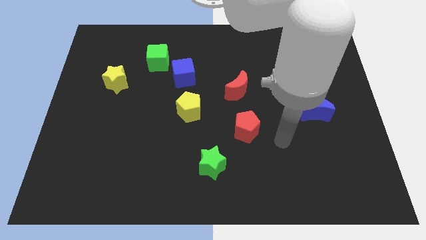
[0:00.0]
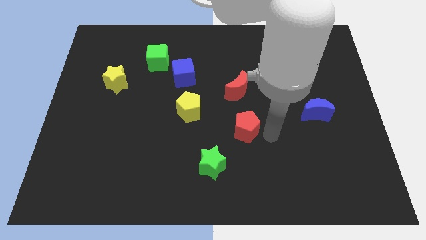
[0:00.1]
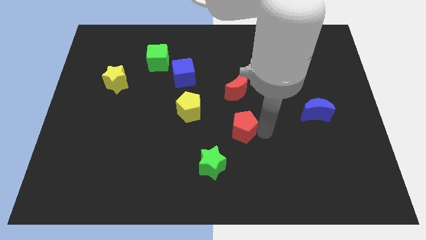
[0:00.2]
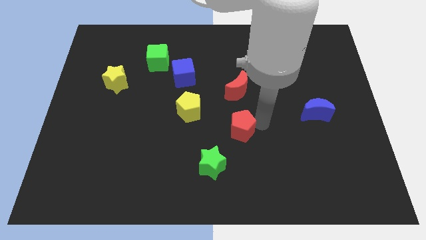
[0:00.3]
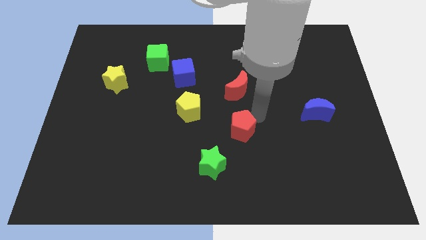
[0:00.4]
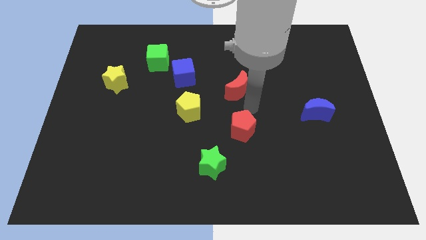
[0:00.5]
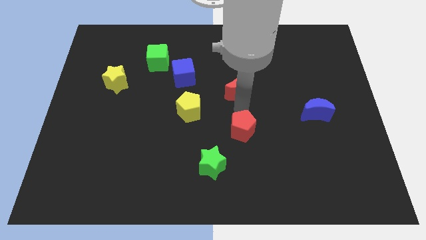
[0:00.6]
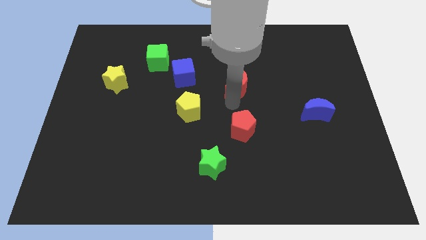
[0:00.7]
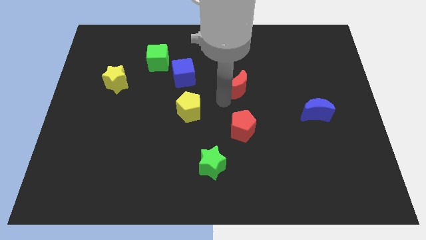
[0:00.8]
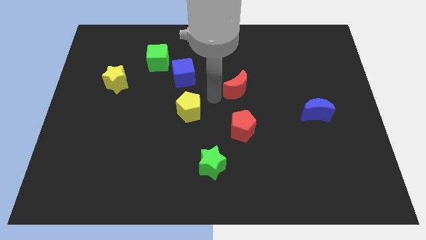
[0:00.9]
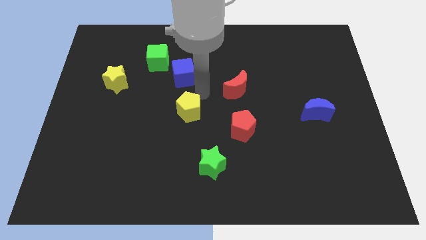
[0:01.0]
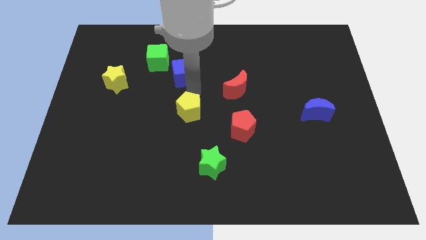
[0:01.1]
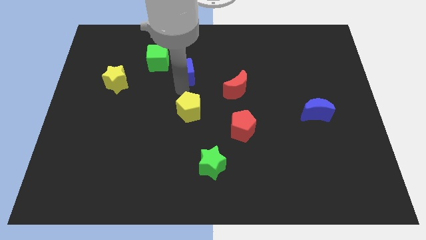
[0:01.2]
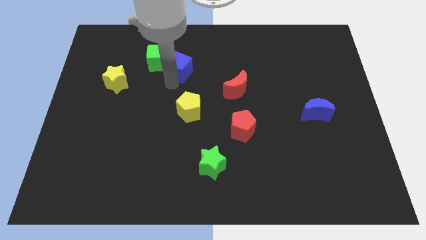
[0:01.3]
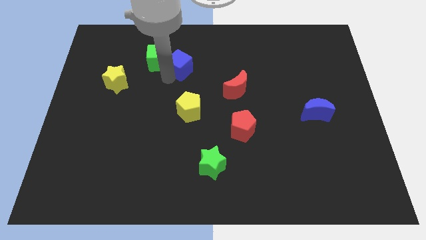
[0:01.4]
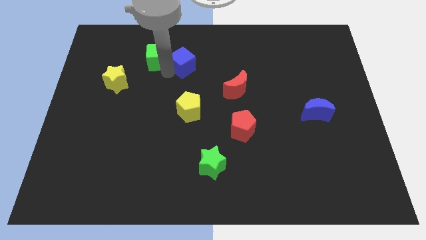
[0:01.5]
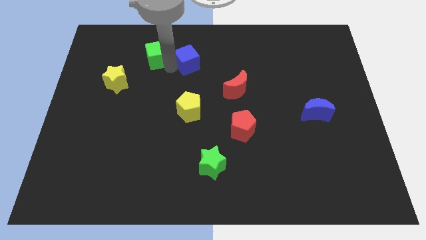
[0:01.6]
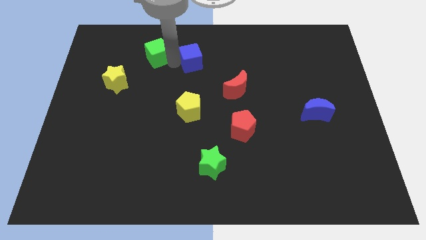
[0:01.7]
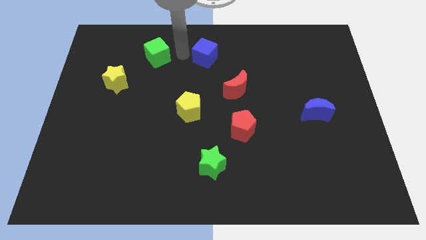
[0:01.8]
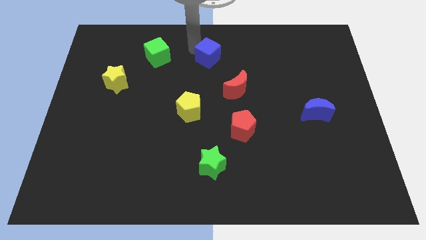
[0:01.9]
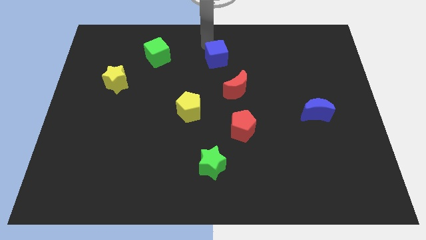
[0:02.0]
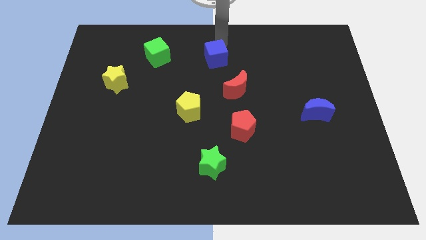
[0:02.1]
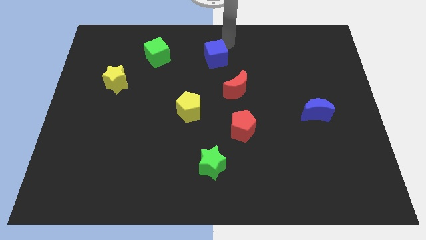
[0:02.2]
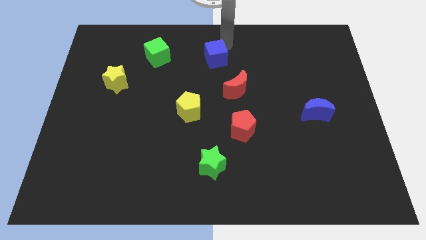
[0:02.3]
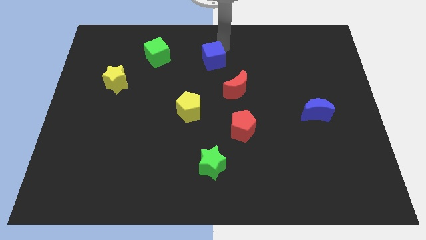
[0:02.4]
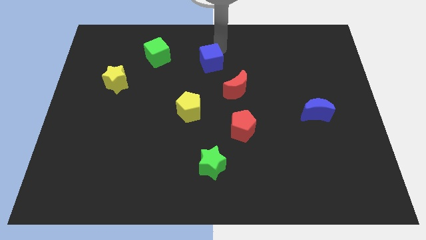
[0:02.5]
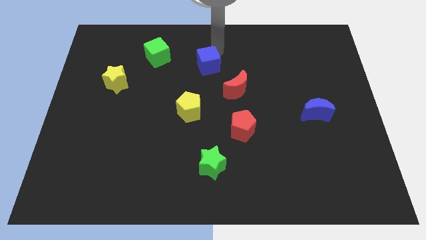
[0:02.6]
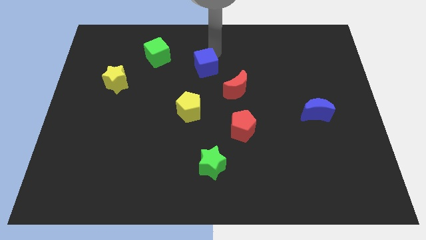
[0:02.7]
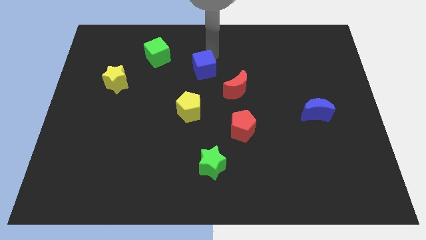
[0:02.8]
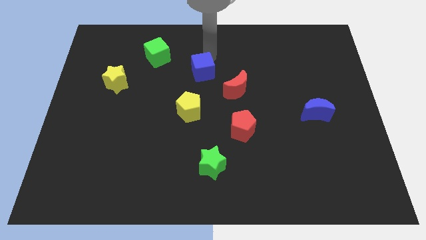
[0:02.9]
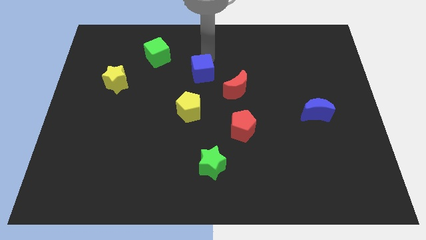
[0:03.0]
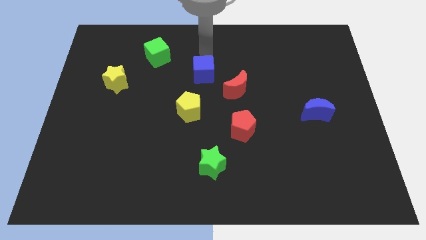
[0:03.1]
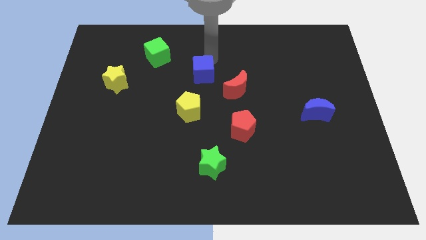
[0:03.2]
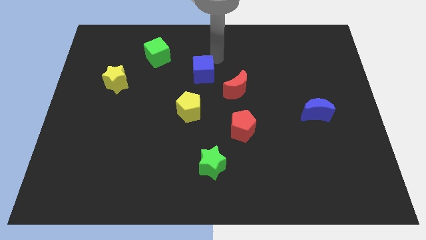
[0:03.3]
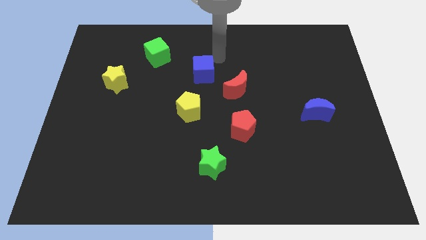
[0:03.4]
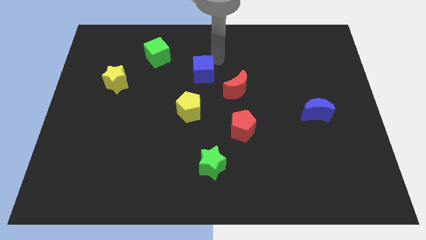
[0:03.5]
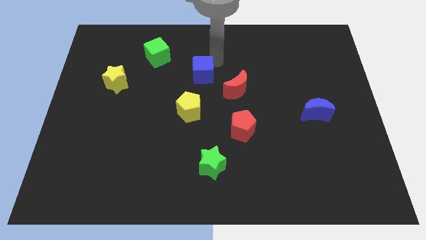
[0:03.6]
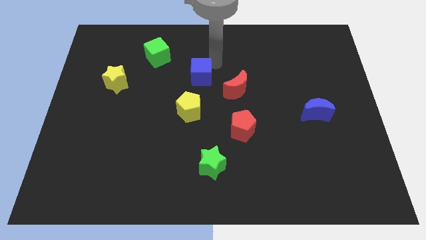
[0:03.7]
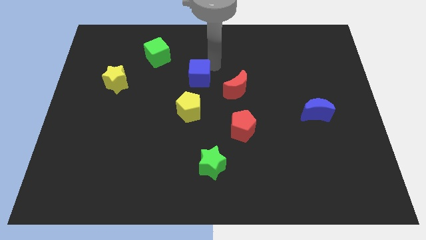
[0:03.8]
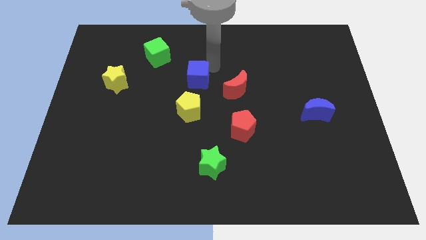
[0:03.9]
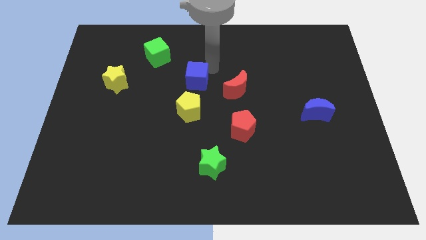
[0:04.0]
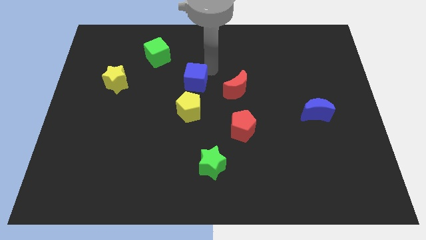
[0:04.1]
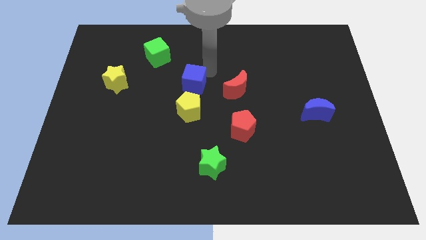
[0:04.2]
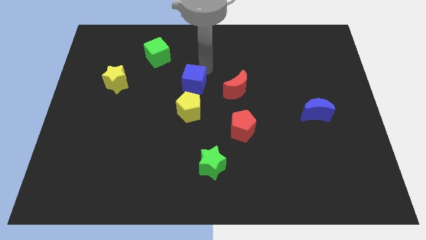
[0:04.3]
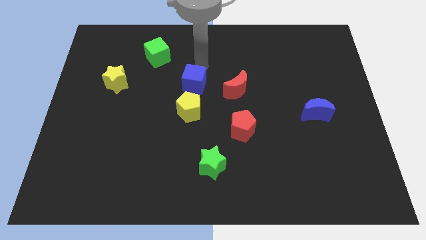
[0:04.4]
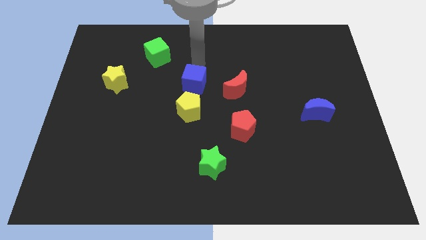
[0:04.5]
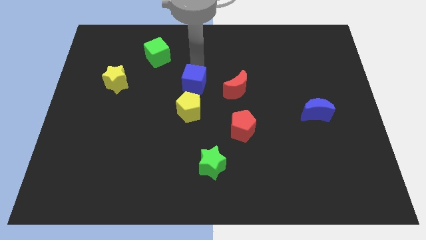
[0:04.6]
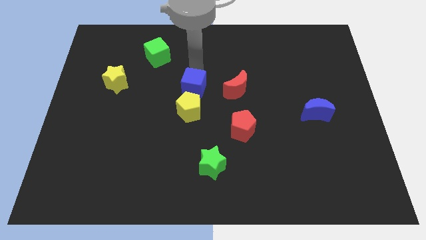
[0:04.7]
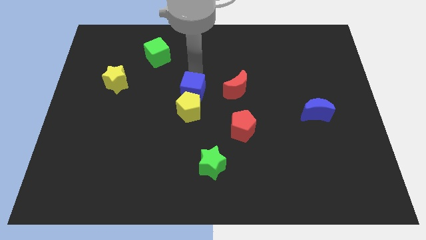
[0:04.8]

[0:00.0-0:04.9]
put the blue cube close to the yellow pentagon

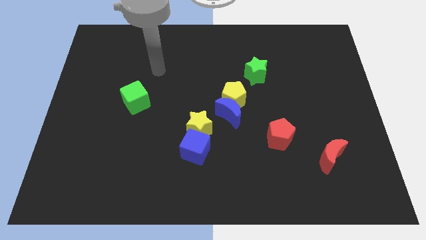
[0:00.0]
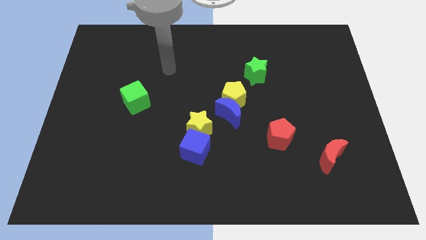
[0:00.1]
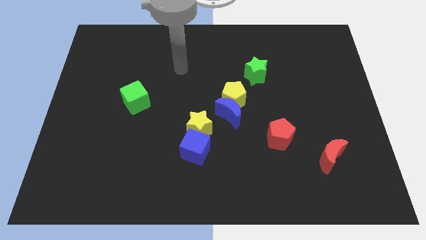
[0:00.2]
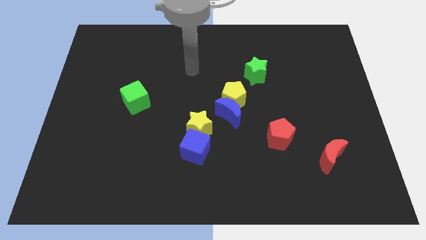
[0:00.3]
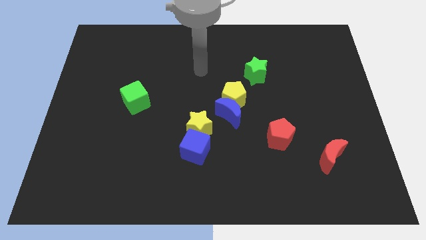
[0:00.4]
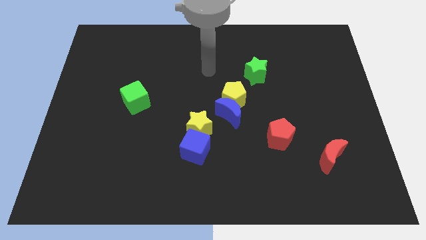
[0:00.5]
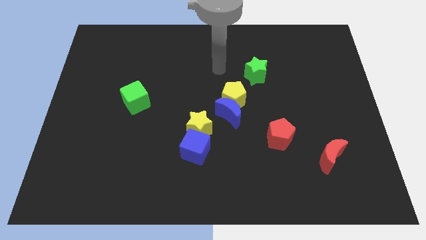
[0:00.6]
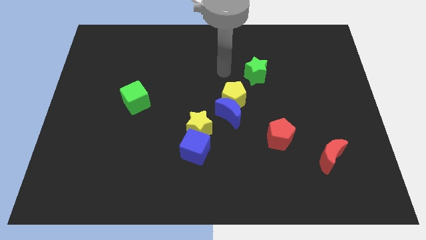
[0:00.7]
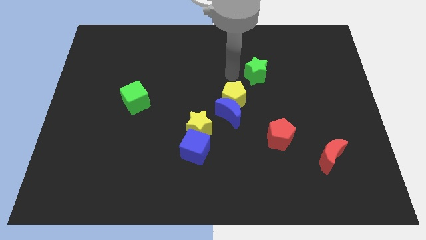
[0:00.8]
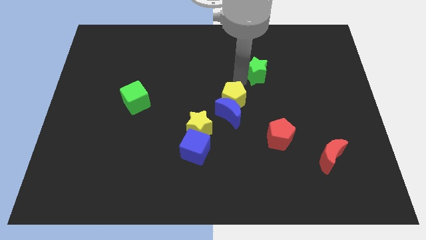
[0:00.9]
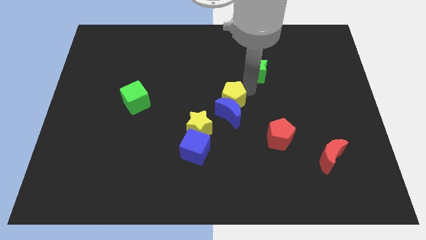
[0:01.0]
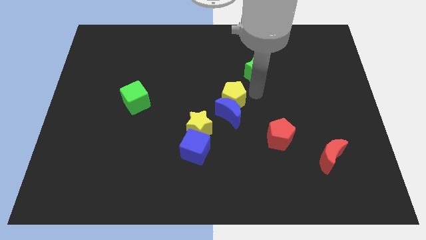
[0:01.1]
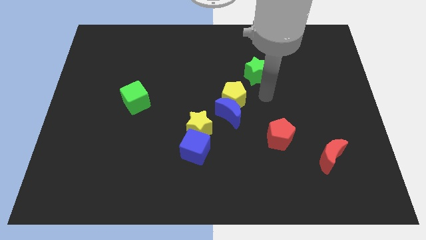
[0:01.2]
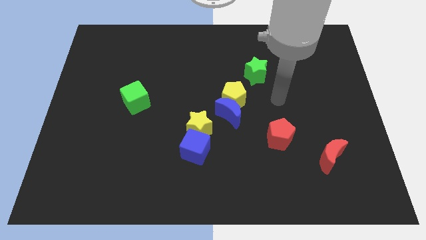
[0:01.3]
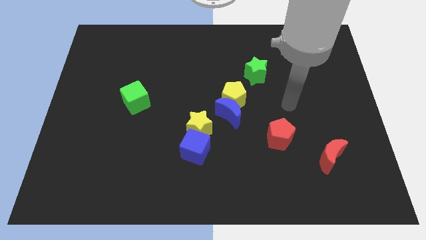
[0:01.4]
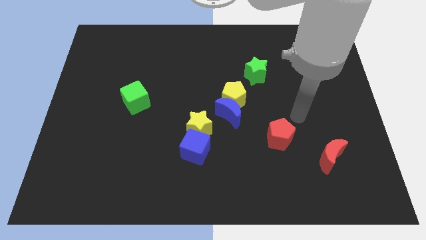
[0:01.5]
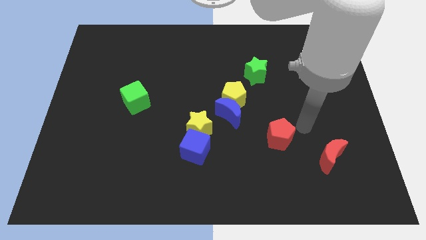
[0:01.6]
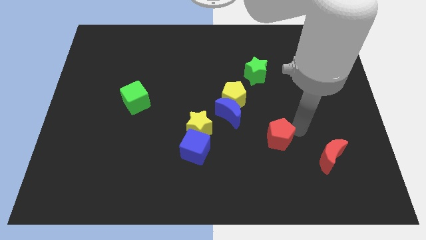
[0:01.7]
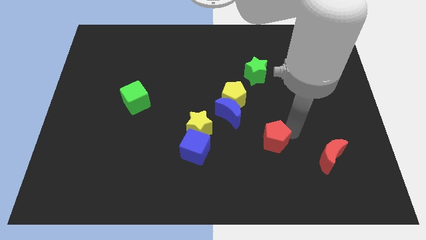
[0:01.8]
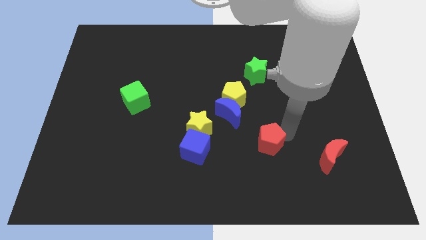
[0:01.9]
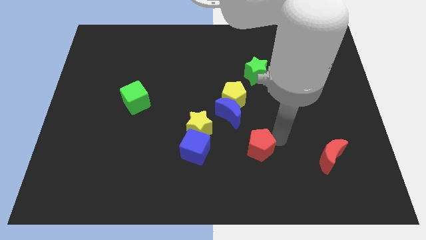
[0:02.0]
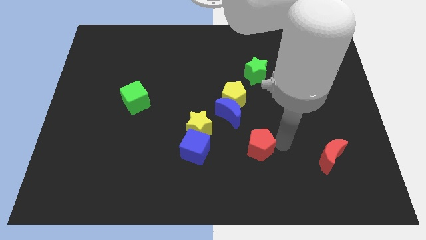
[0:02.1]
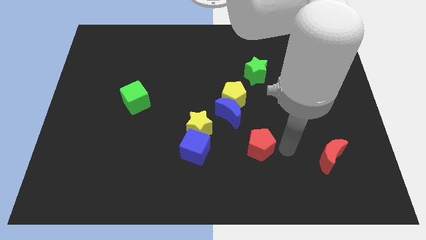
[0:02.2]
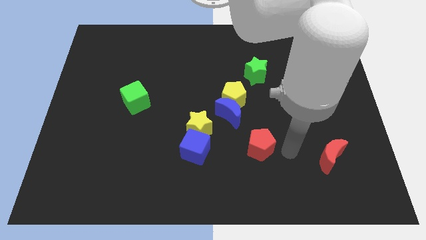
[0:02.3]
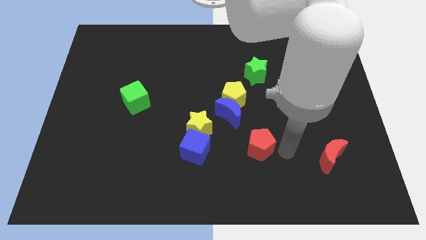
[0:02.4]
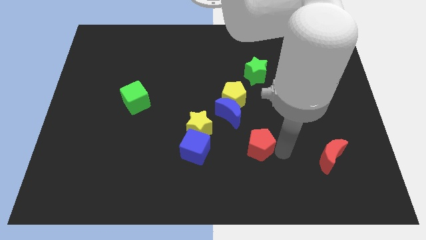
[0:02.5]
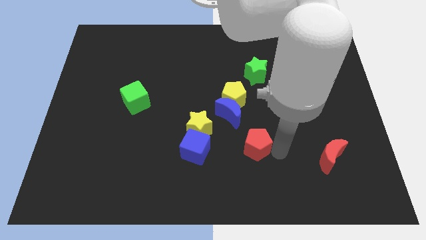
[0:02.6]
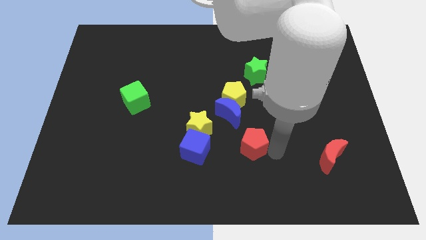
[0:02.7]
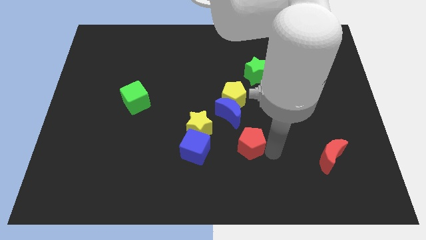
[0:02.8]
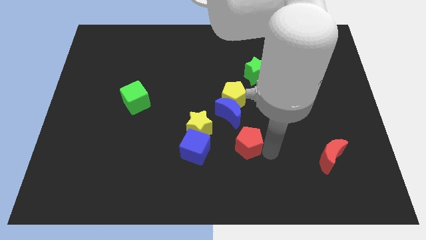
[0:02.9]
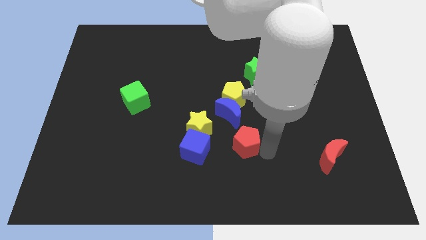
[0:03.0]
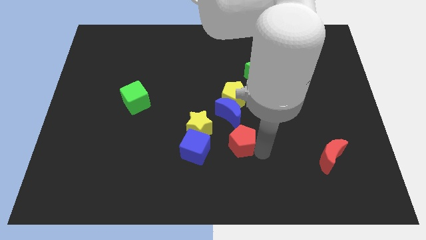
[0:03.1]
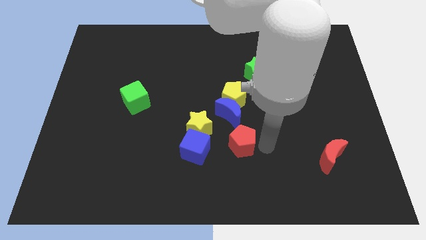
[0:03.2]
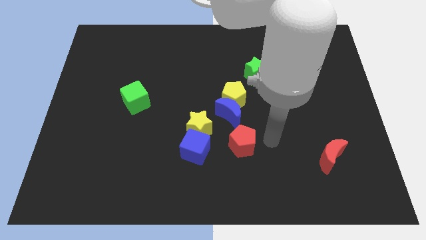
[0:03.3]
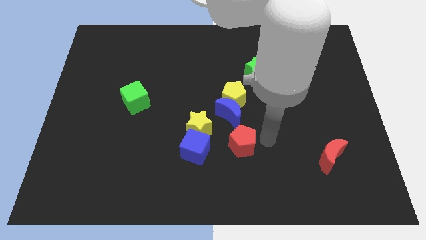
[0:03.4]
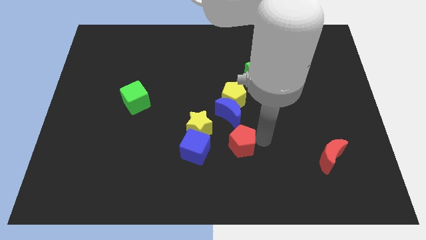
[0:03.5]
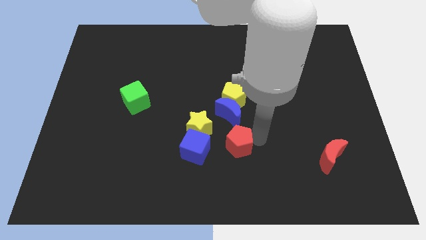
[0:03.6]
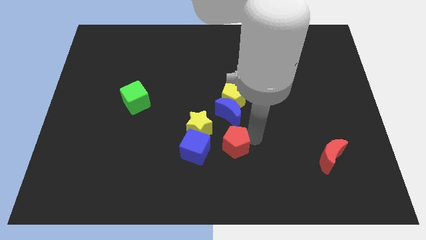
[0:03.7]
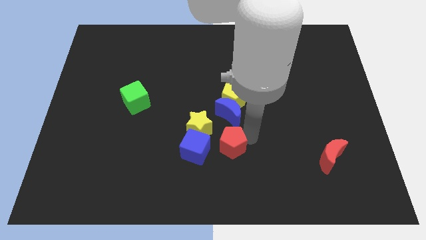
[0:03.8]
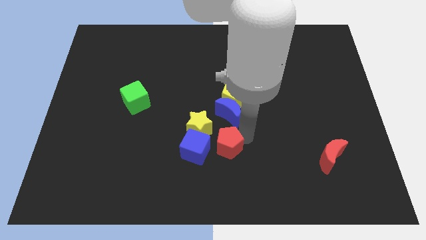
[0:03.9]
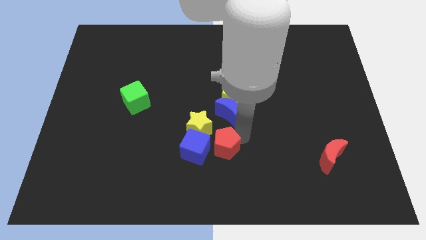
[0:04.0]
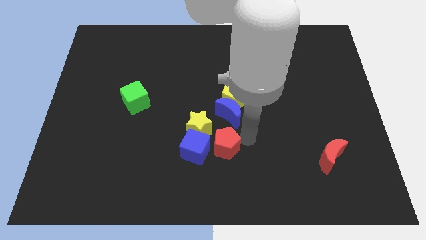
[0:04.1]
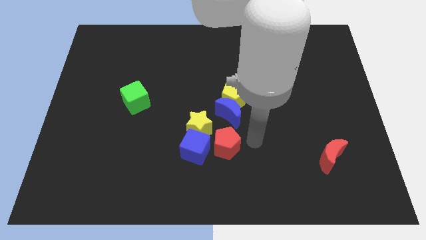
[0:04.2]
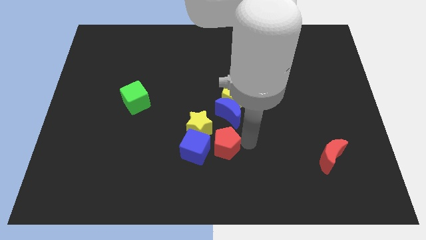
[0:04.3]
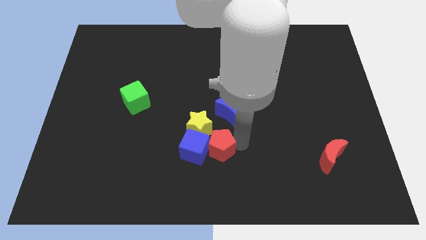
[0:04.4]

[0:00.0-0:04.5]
move the red pentagon towards the blue cube
